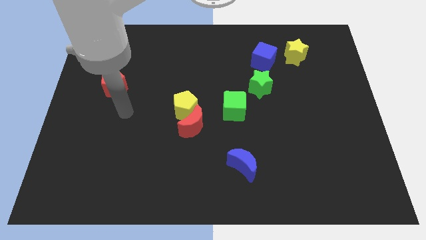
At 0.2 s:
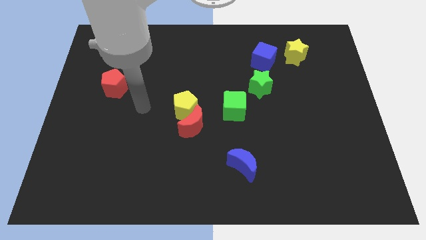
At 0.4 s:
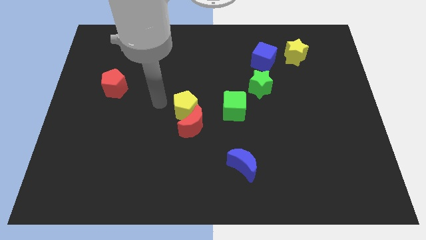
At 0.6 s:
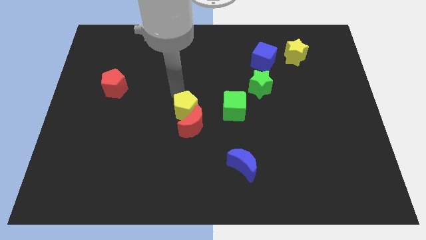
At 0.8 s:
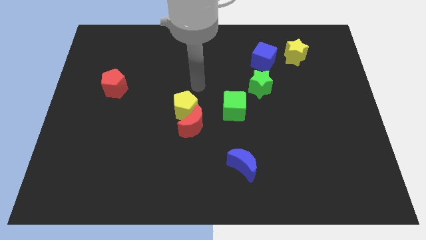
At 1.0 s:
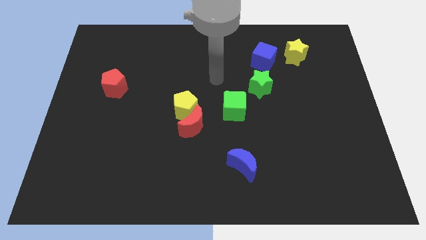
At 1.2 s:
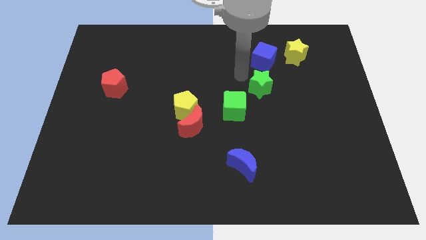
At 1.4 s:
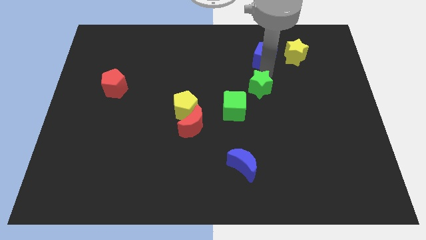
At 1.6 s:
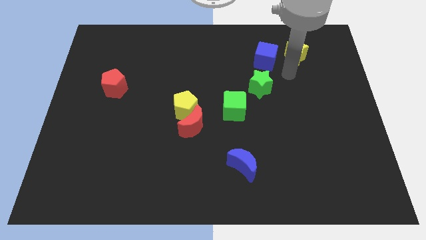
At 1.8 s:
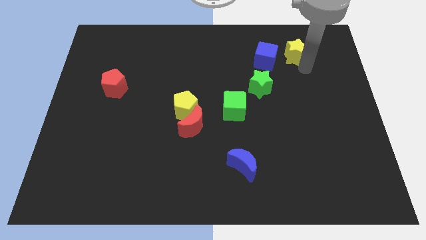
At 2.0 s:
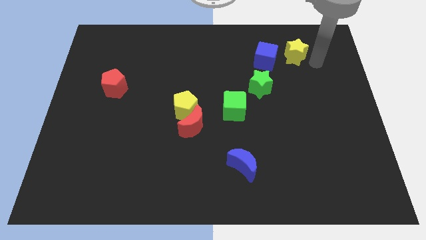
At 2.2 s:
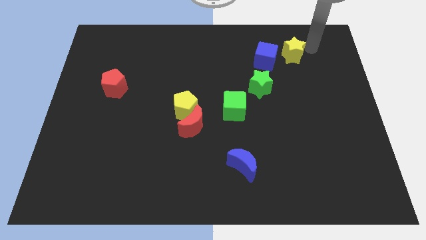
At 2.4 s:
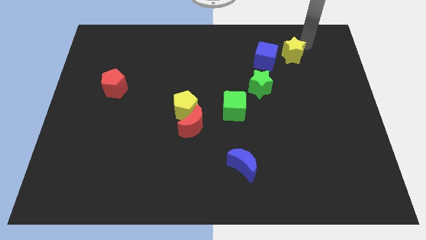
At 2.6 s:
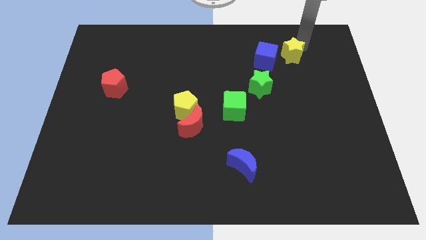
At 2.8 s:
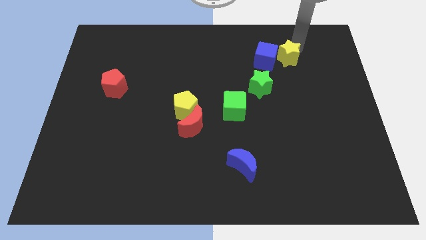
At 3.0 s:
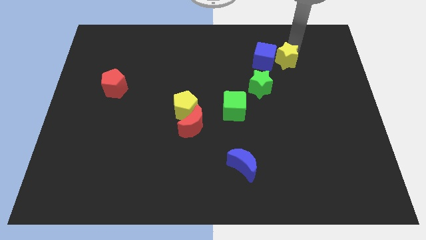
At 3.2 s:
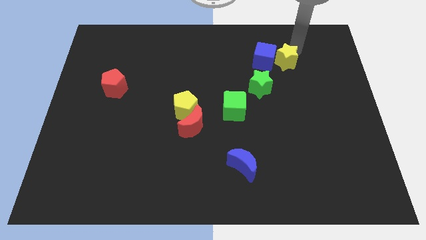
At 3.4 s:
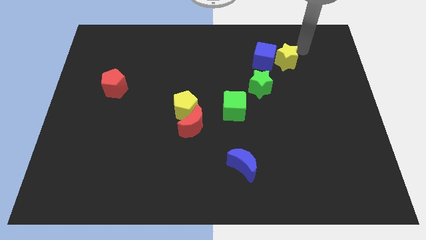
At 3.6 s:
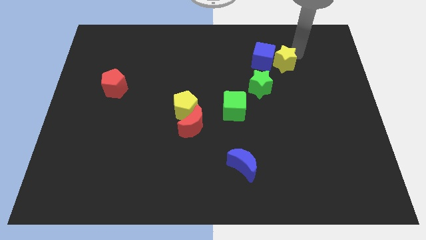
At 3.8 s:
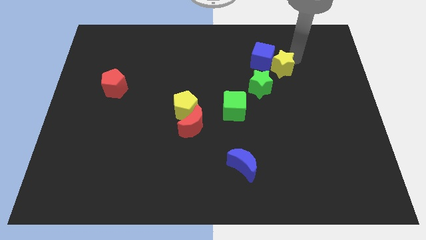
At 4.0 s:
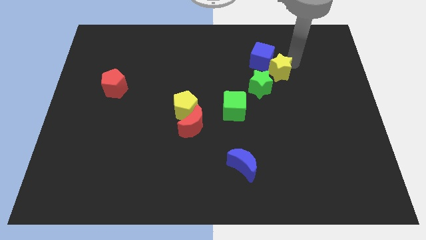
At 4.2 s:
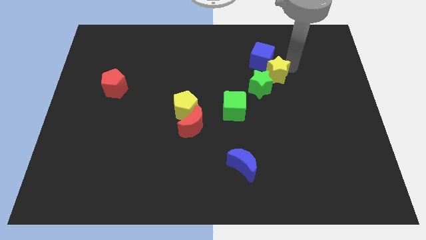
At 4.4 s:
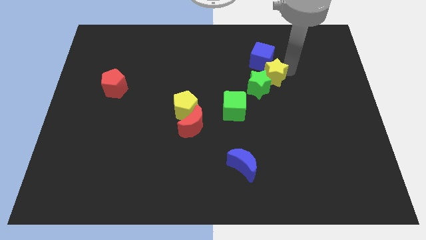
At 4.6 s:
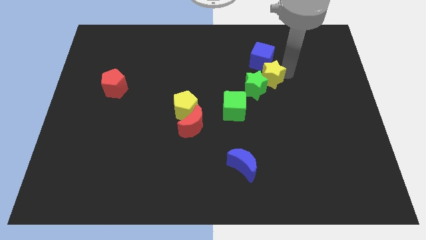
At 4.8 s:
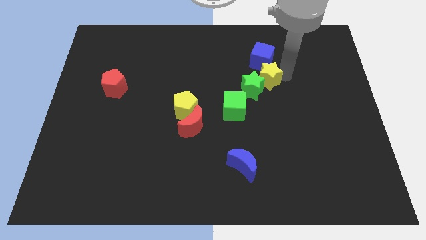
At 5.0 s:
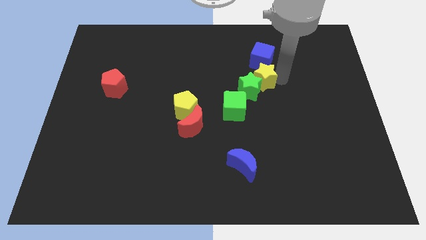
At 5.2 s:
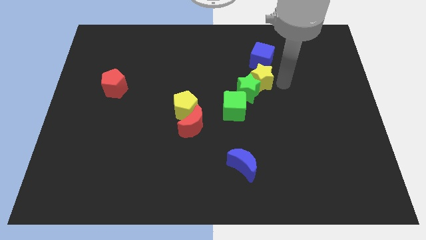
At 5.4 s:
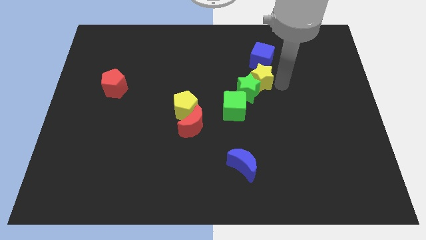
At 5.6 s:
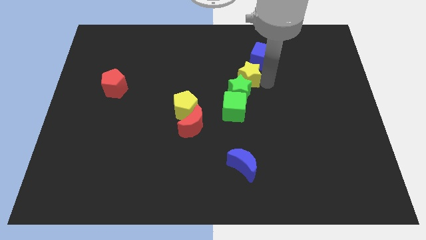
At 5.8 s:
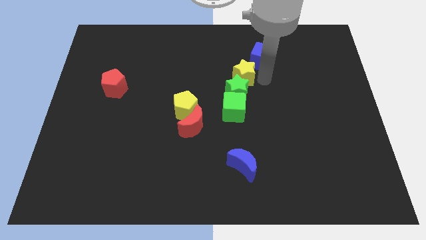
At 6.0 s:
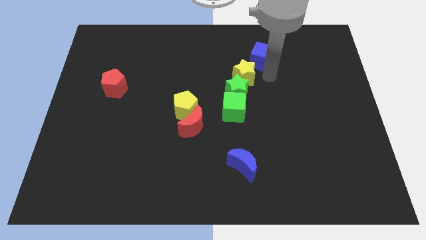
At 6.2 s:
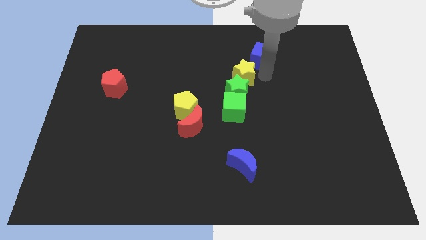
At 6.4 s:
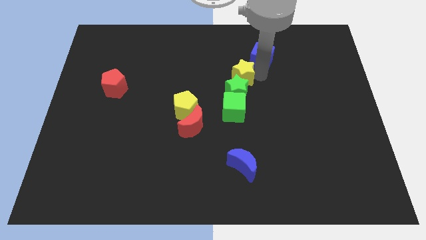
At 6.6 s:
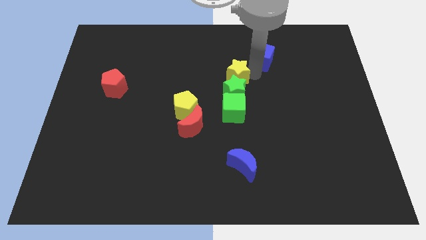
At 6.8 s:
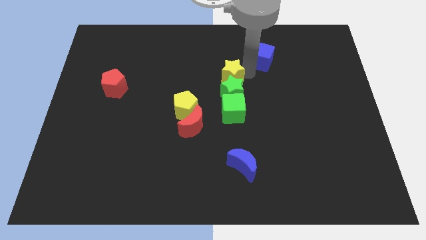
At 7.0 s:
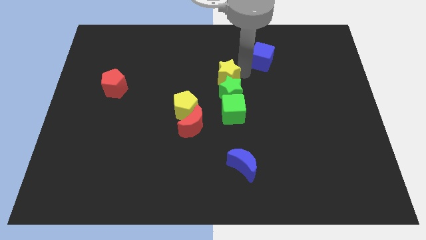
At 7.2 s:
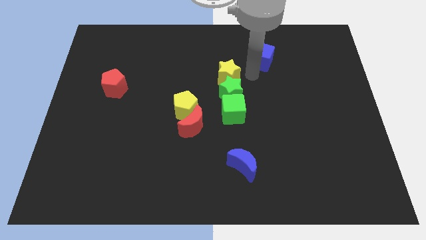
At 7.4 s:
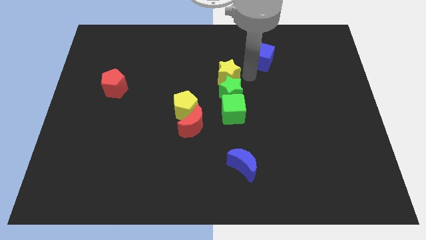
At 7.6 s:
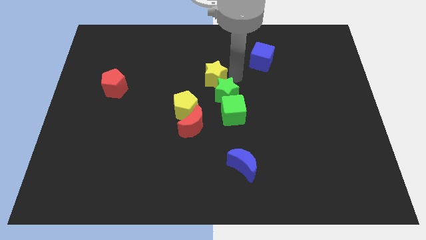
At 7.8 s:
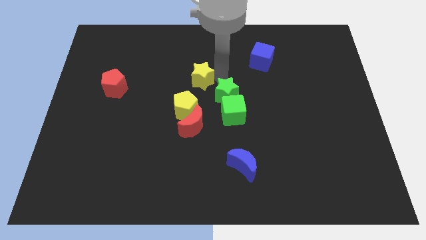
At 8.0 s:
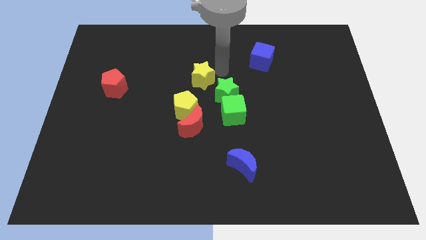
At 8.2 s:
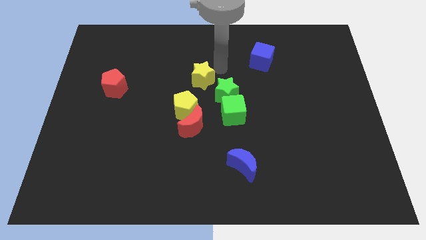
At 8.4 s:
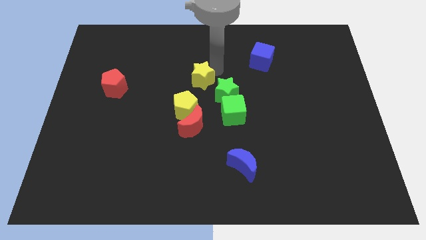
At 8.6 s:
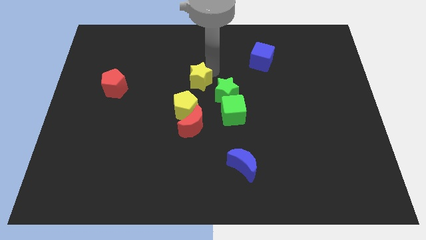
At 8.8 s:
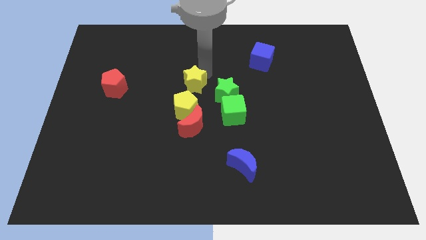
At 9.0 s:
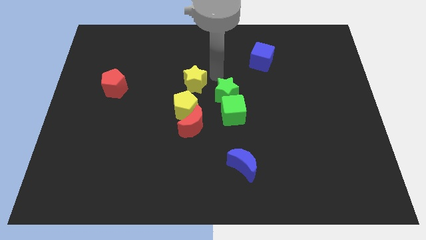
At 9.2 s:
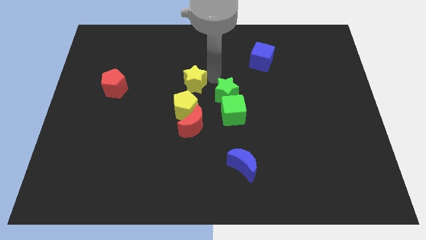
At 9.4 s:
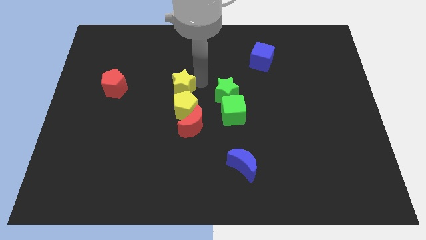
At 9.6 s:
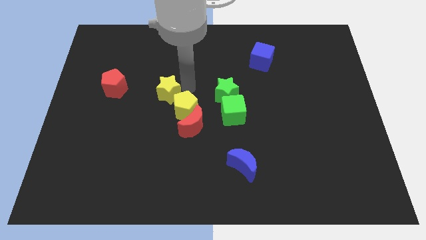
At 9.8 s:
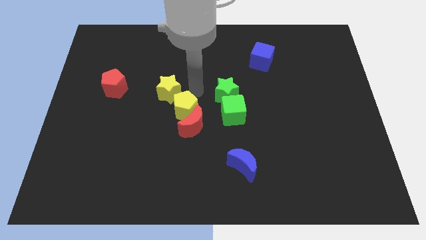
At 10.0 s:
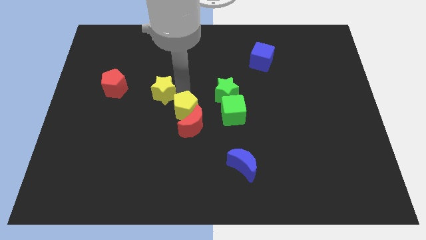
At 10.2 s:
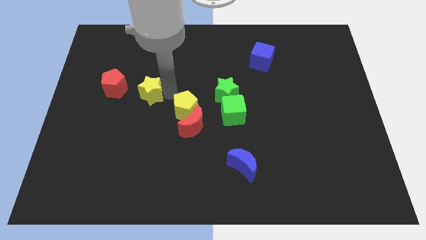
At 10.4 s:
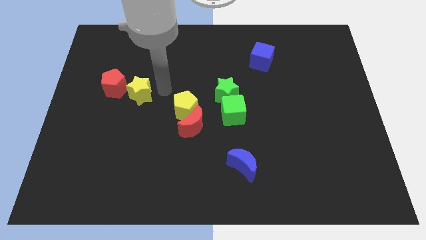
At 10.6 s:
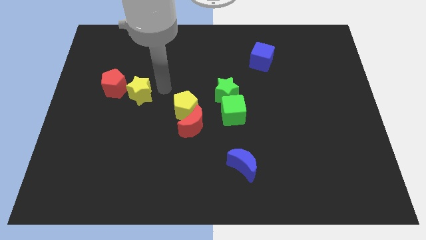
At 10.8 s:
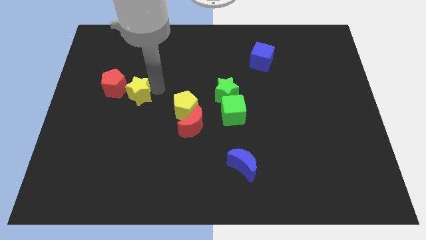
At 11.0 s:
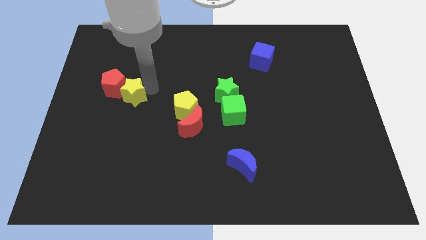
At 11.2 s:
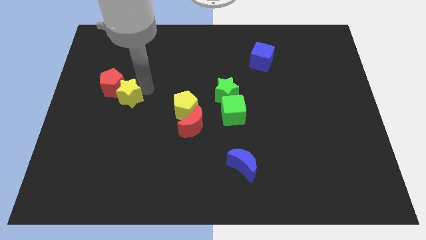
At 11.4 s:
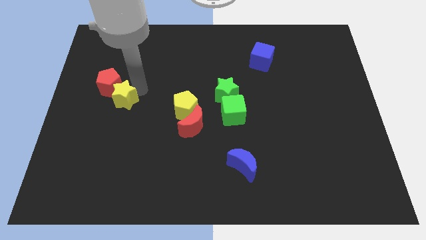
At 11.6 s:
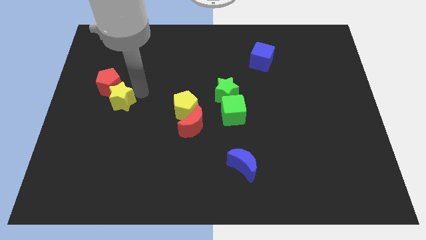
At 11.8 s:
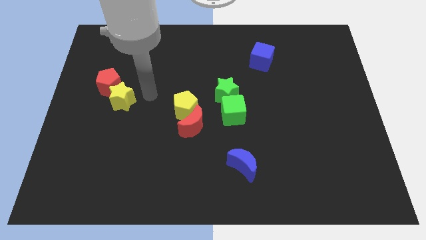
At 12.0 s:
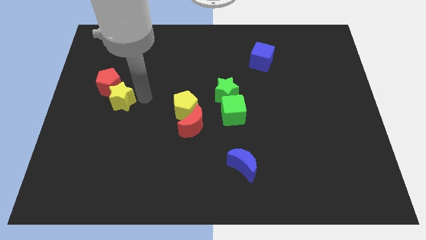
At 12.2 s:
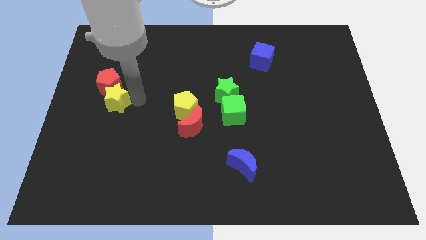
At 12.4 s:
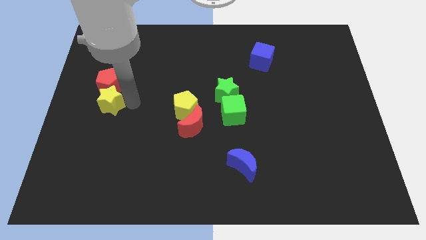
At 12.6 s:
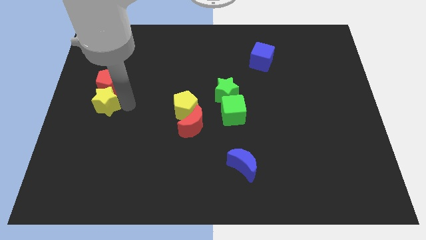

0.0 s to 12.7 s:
slide the yellow star to the left side
